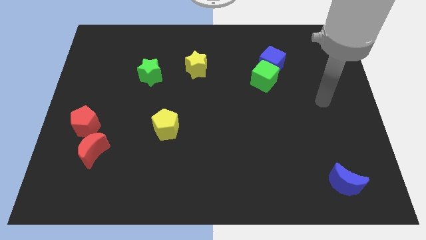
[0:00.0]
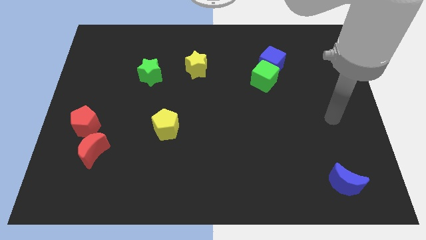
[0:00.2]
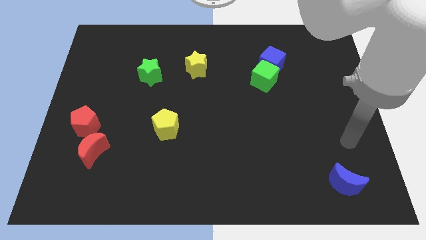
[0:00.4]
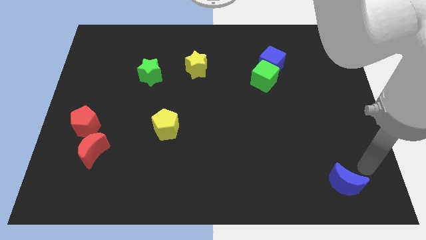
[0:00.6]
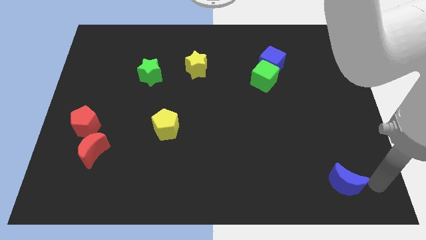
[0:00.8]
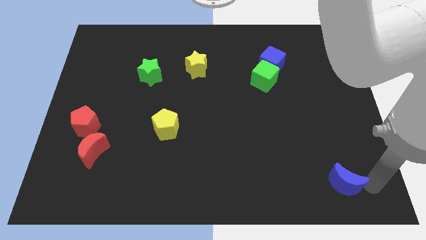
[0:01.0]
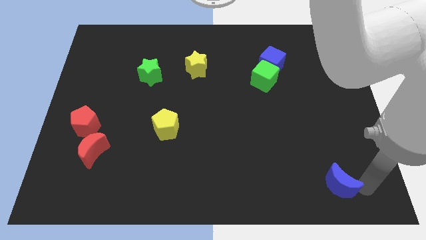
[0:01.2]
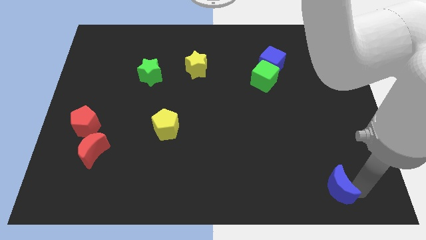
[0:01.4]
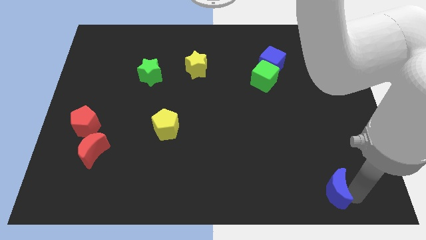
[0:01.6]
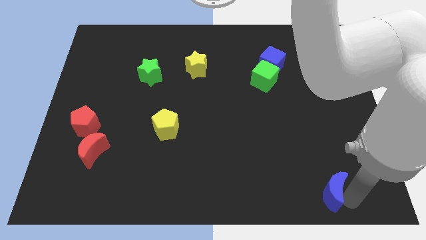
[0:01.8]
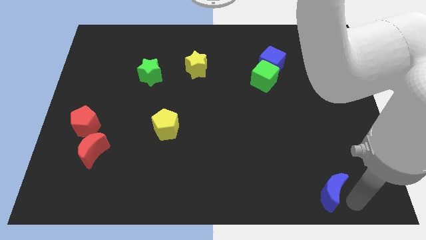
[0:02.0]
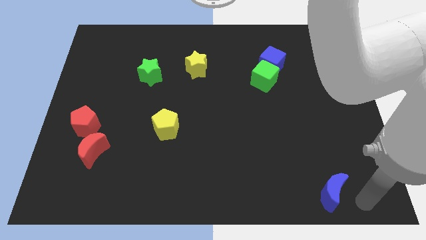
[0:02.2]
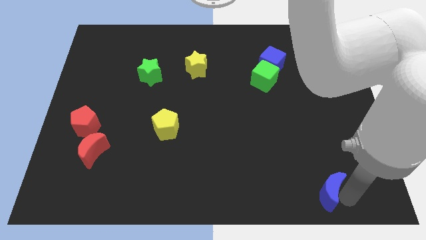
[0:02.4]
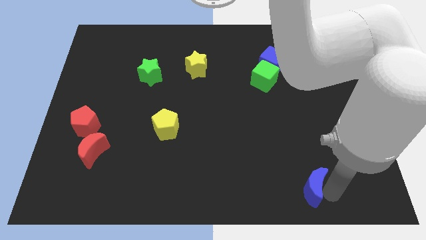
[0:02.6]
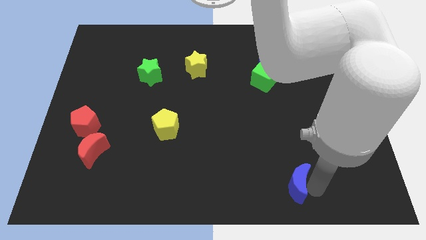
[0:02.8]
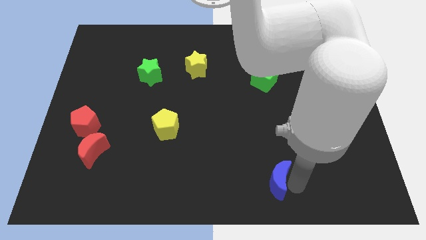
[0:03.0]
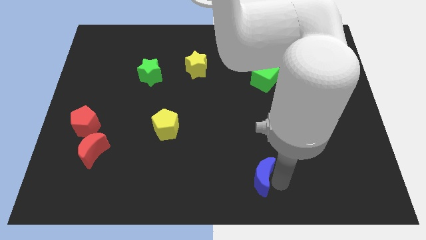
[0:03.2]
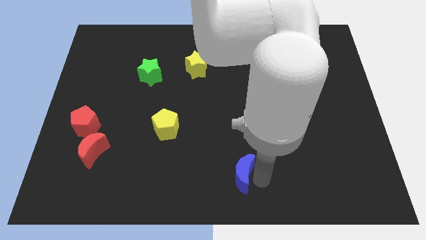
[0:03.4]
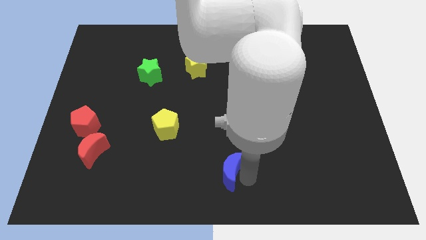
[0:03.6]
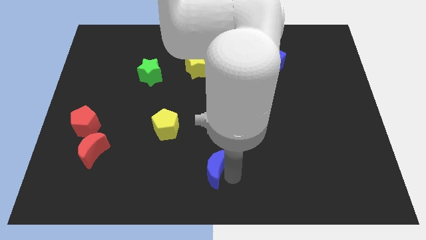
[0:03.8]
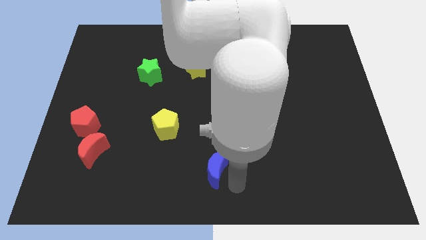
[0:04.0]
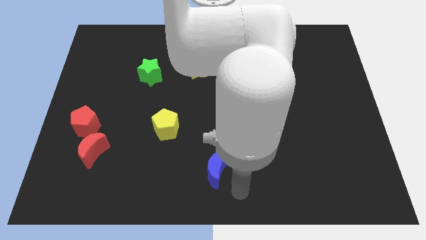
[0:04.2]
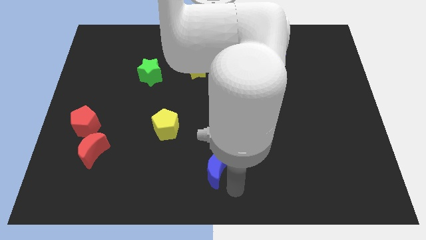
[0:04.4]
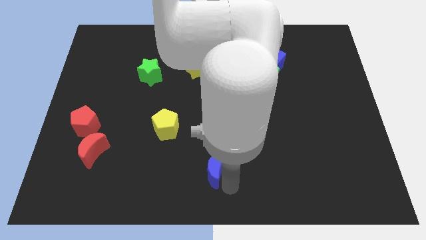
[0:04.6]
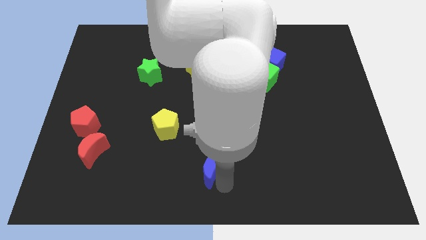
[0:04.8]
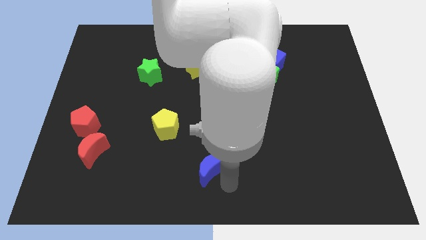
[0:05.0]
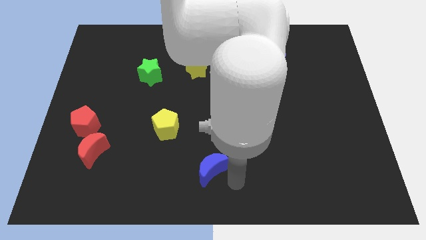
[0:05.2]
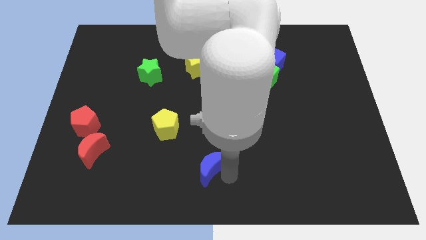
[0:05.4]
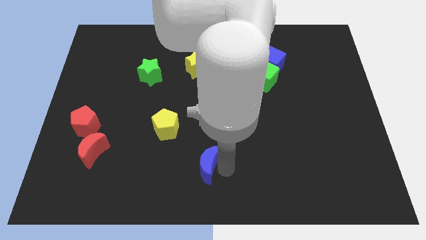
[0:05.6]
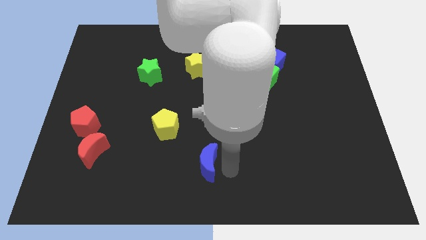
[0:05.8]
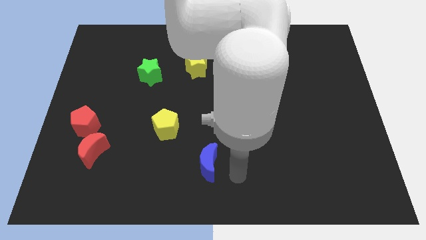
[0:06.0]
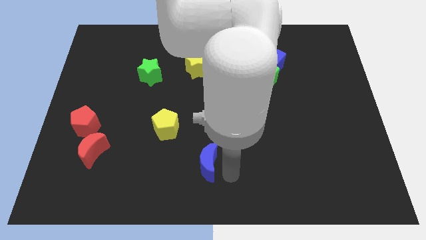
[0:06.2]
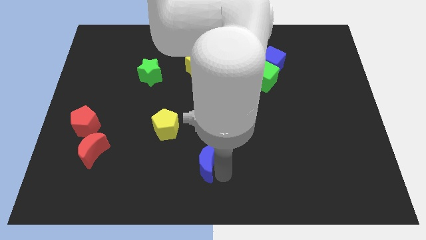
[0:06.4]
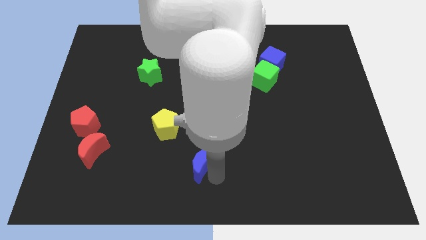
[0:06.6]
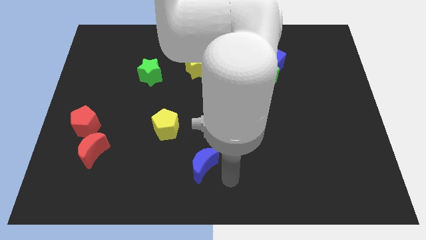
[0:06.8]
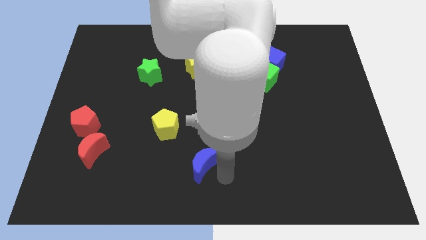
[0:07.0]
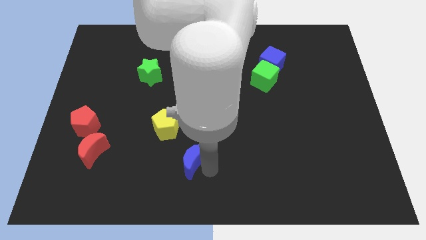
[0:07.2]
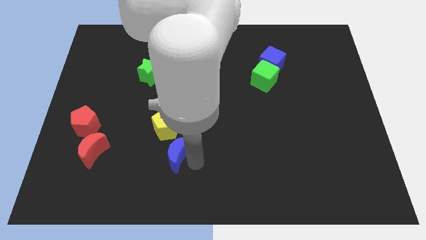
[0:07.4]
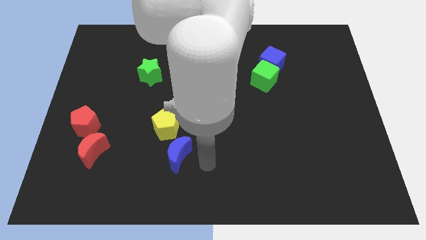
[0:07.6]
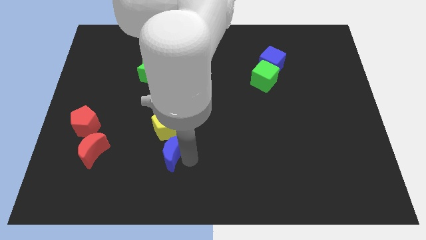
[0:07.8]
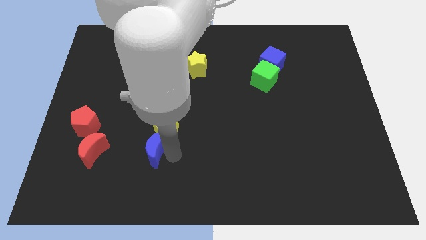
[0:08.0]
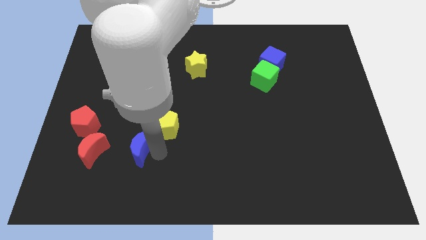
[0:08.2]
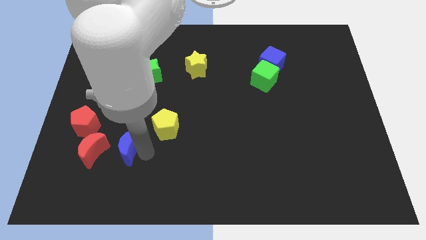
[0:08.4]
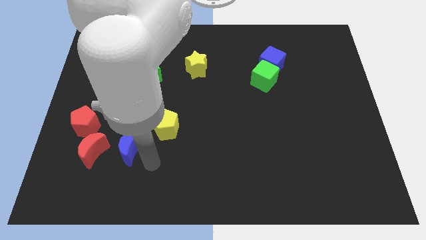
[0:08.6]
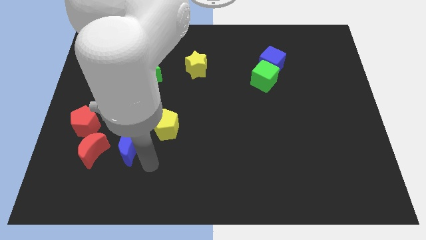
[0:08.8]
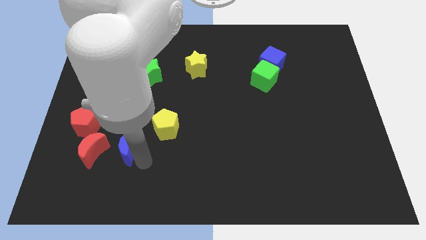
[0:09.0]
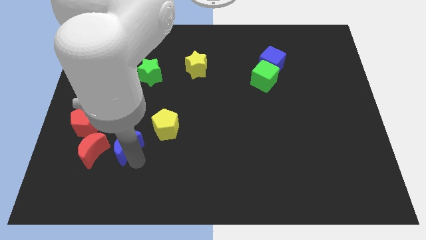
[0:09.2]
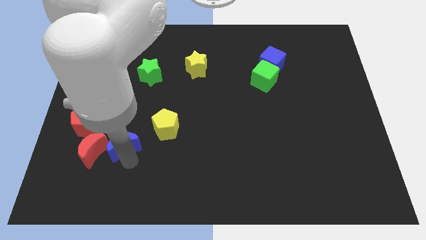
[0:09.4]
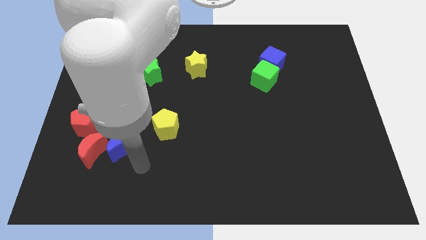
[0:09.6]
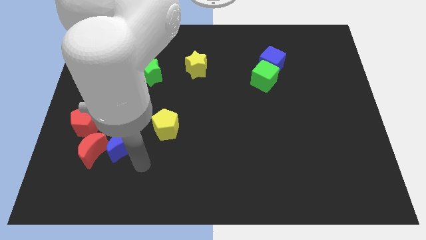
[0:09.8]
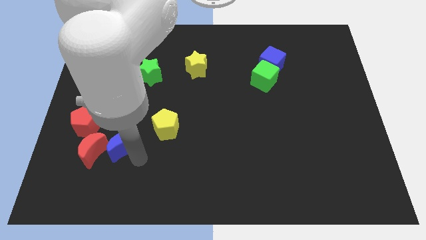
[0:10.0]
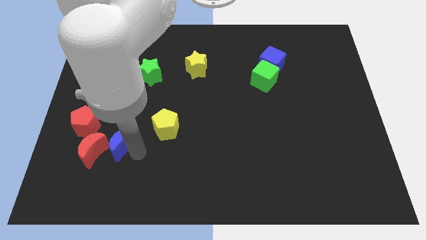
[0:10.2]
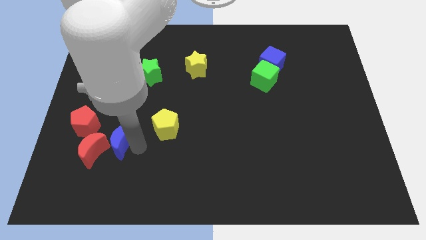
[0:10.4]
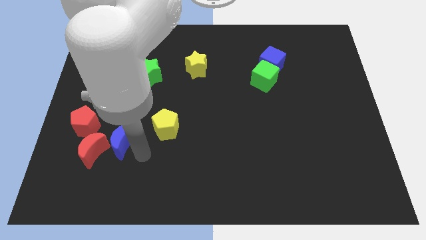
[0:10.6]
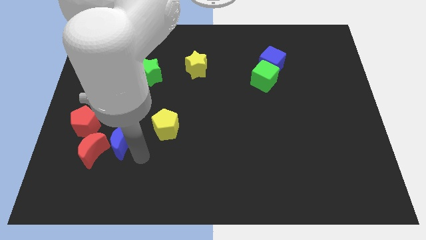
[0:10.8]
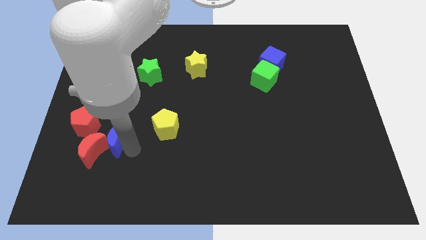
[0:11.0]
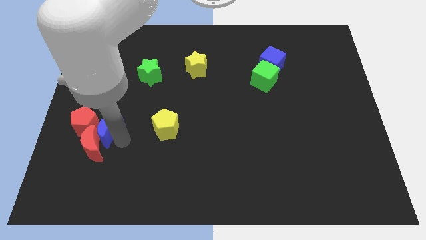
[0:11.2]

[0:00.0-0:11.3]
put the blue moon next to the red pentagon

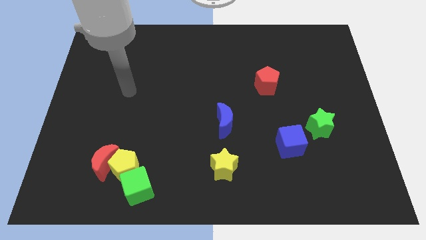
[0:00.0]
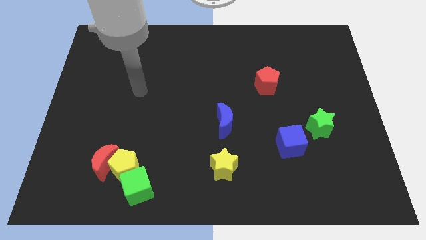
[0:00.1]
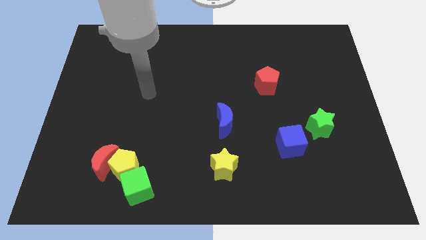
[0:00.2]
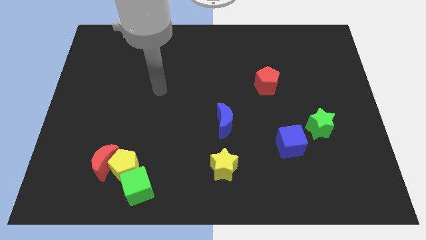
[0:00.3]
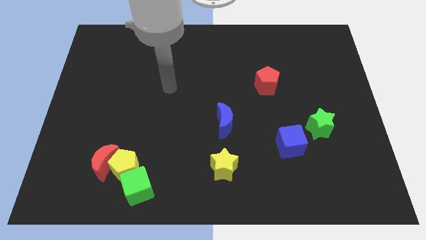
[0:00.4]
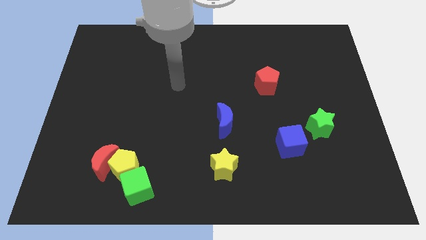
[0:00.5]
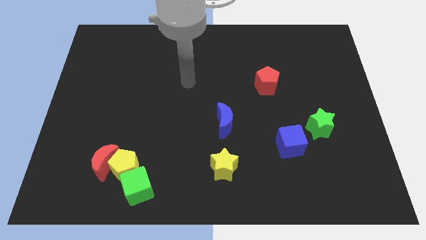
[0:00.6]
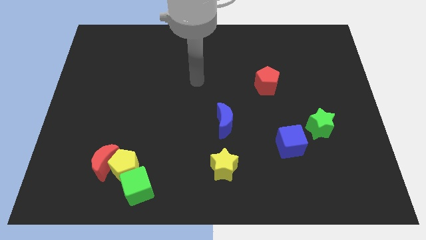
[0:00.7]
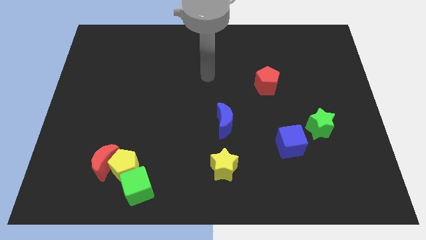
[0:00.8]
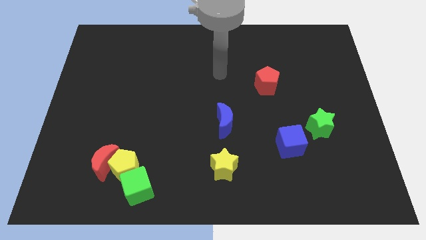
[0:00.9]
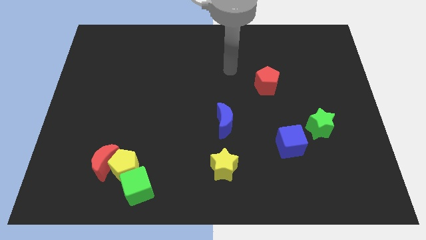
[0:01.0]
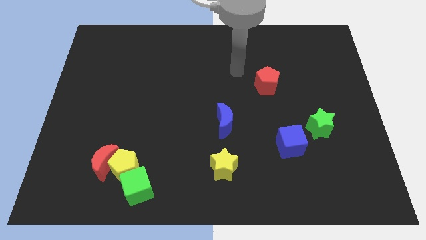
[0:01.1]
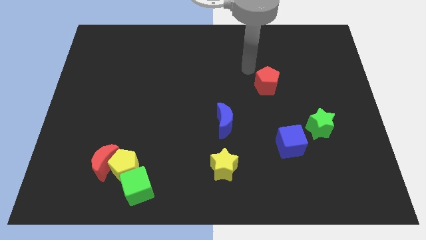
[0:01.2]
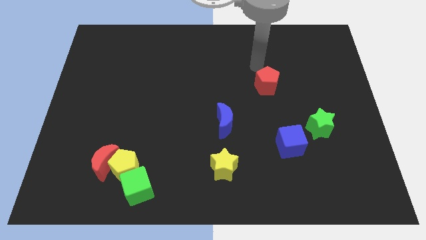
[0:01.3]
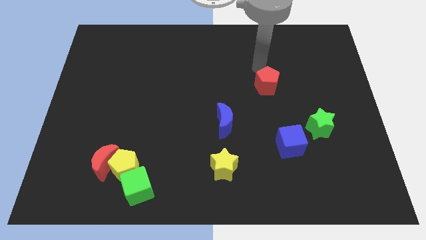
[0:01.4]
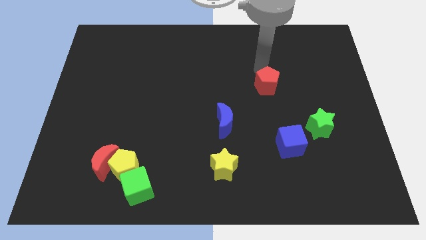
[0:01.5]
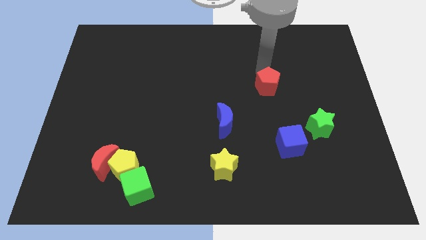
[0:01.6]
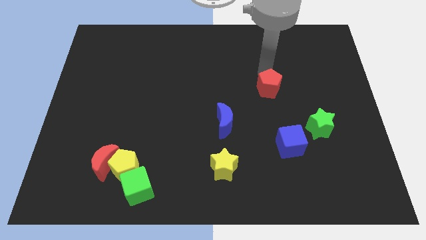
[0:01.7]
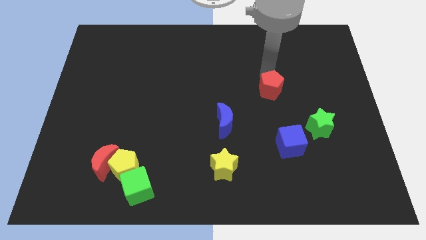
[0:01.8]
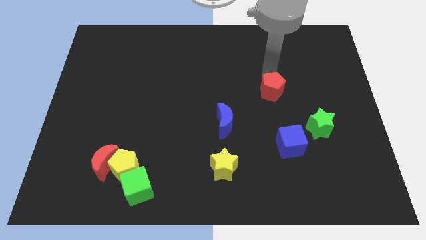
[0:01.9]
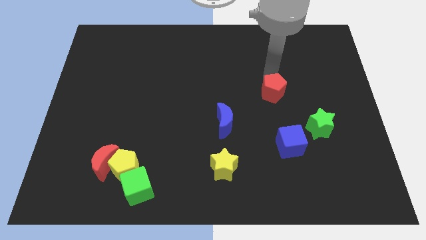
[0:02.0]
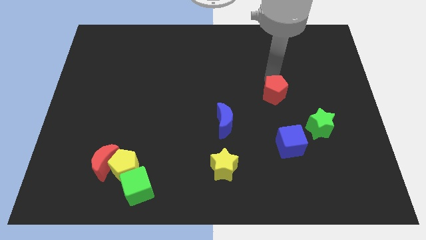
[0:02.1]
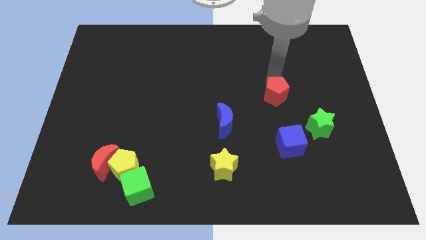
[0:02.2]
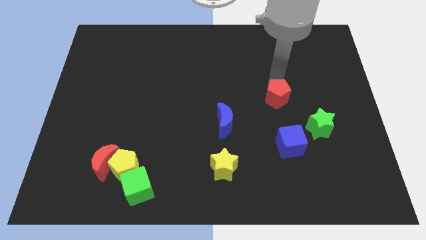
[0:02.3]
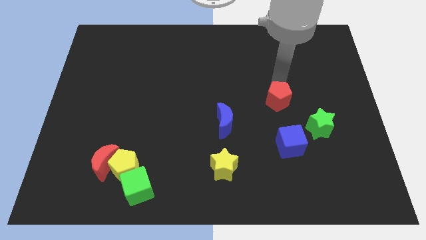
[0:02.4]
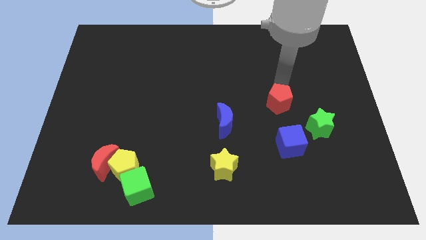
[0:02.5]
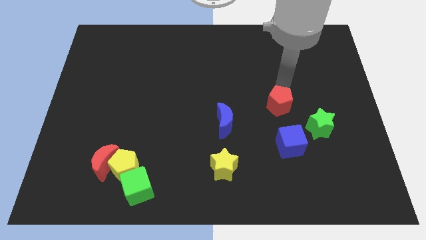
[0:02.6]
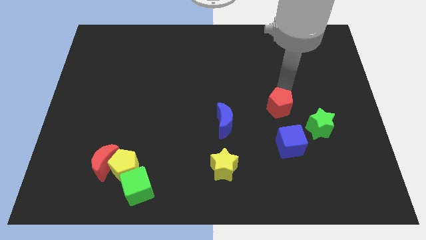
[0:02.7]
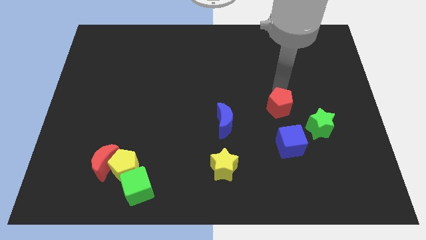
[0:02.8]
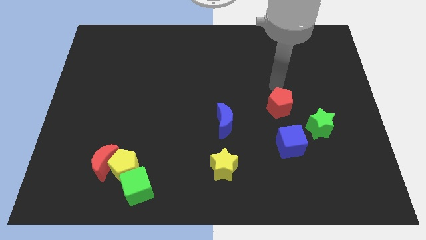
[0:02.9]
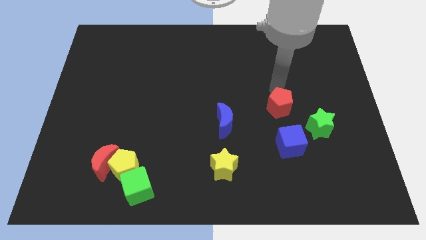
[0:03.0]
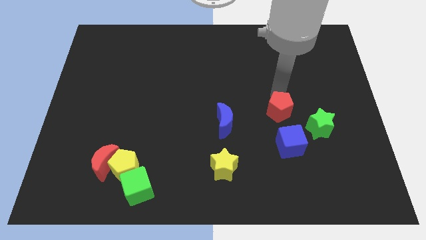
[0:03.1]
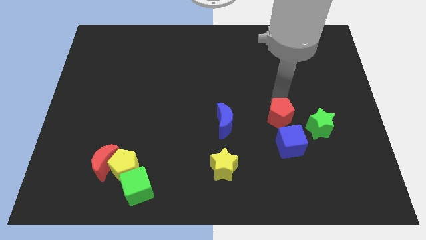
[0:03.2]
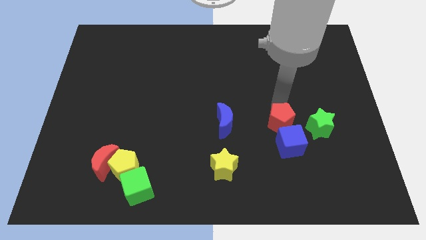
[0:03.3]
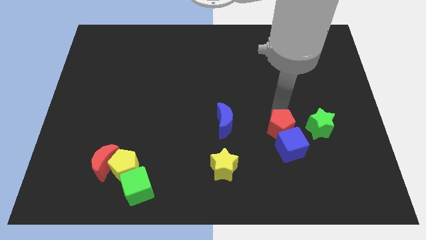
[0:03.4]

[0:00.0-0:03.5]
move the red pentagon towards the blue cube
